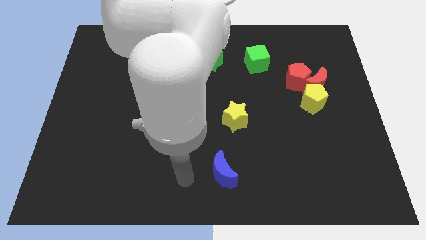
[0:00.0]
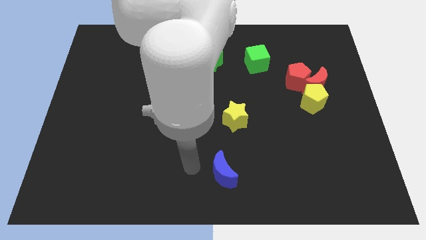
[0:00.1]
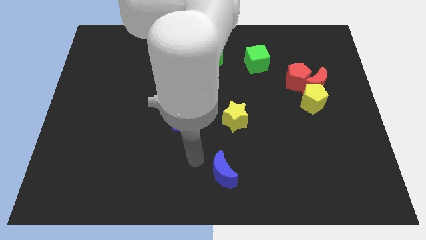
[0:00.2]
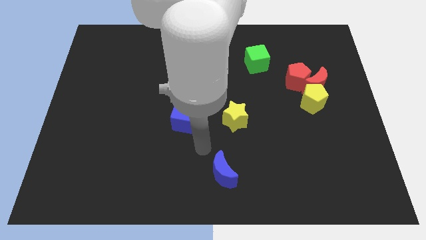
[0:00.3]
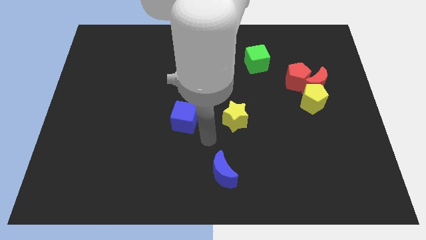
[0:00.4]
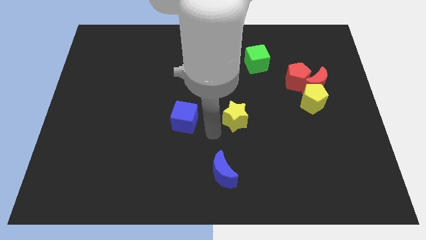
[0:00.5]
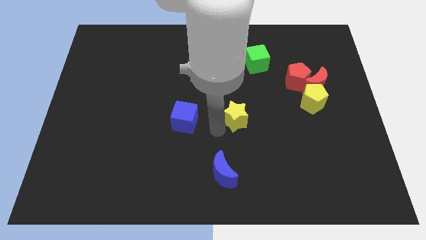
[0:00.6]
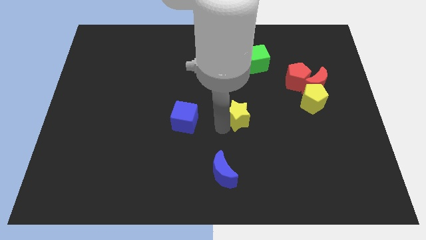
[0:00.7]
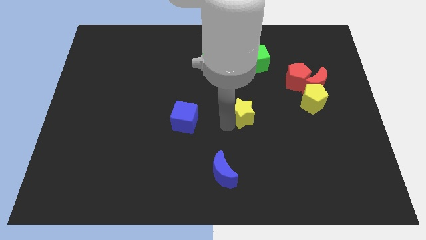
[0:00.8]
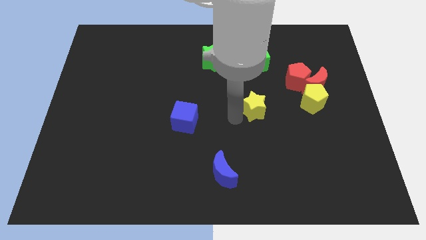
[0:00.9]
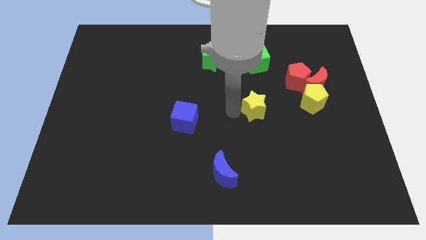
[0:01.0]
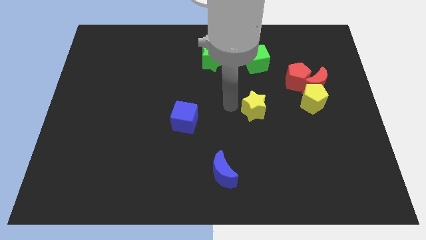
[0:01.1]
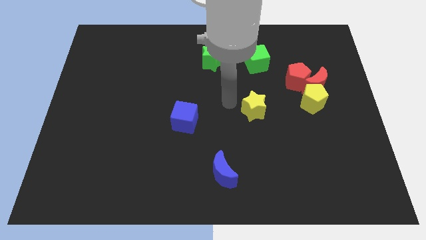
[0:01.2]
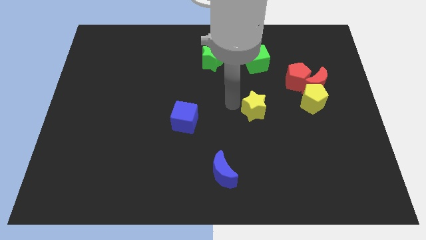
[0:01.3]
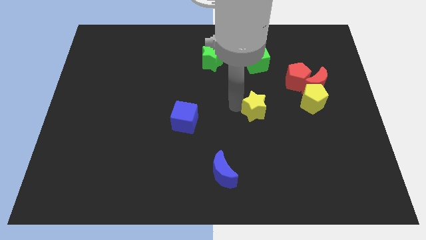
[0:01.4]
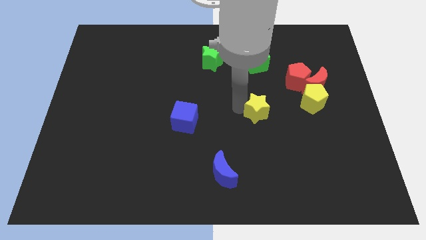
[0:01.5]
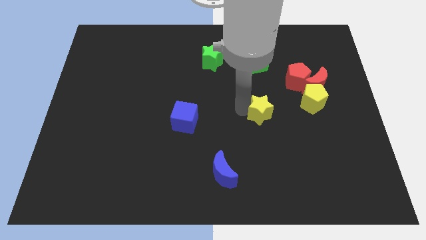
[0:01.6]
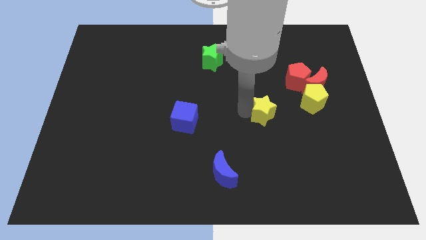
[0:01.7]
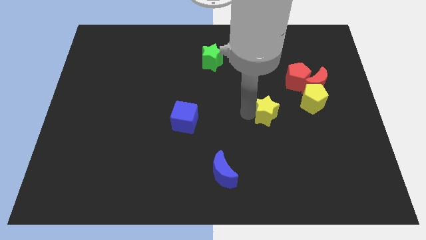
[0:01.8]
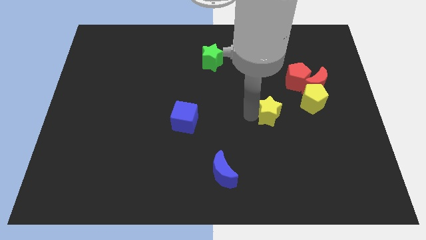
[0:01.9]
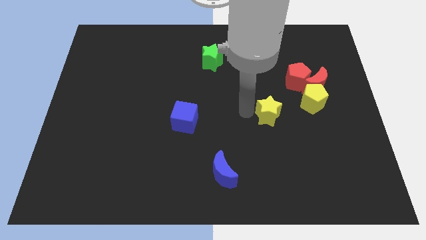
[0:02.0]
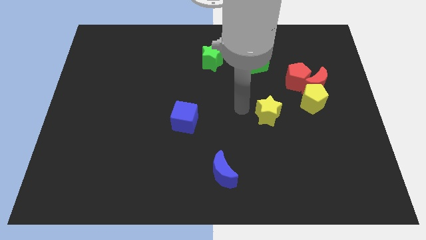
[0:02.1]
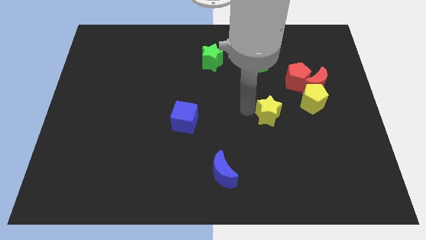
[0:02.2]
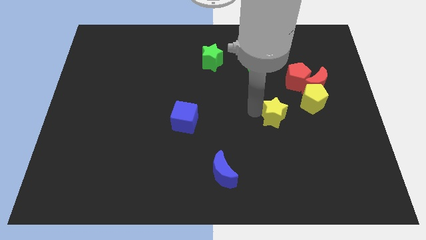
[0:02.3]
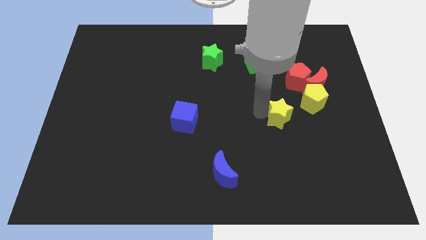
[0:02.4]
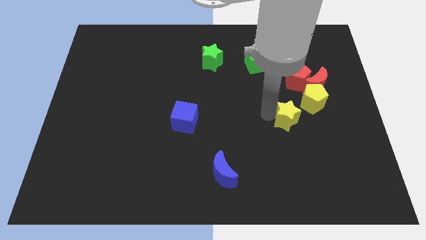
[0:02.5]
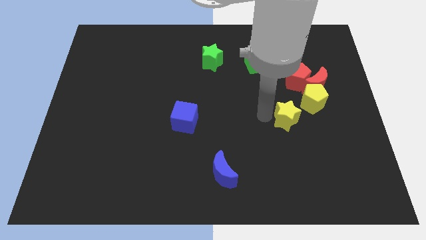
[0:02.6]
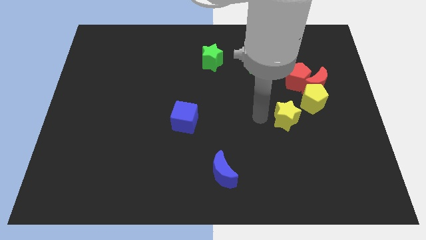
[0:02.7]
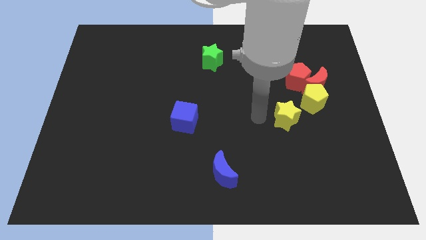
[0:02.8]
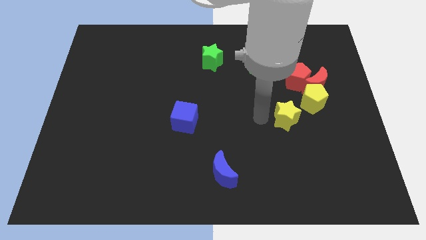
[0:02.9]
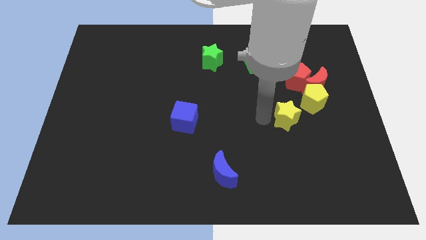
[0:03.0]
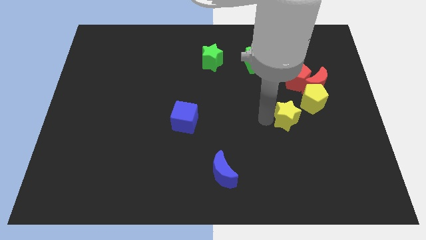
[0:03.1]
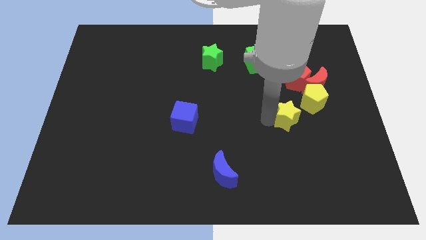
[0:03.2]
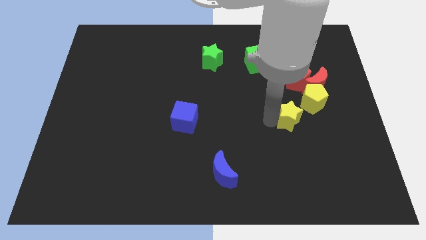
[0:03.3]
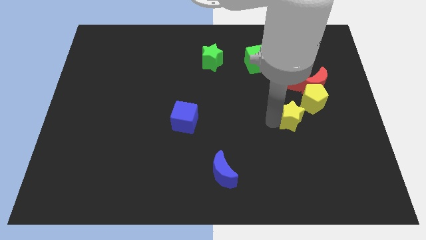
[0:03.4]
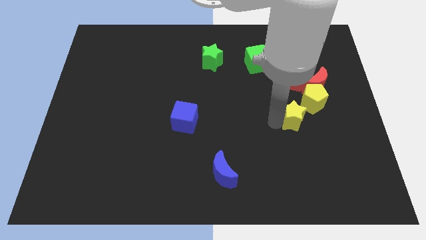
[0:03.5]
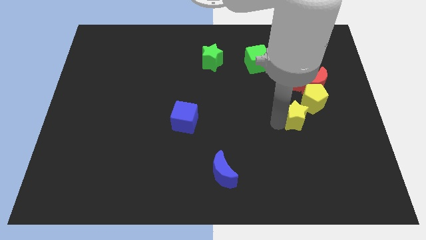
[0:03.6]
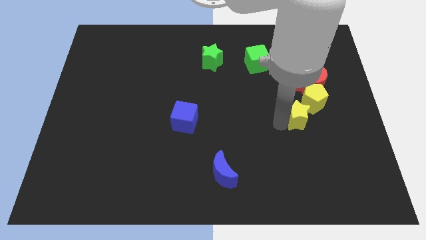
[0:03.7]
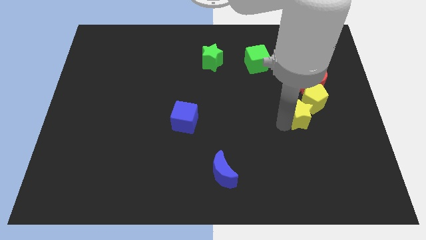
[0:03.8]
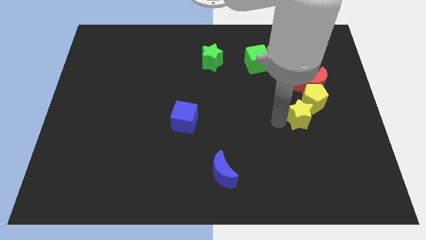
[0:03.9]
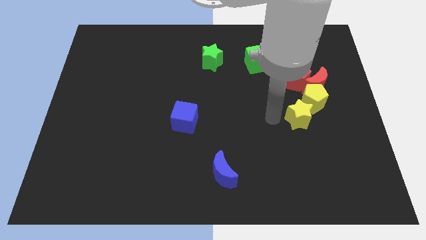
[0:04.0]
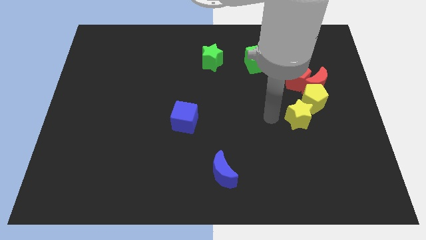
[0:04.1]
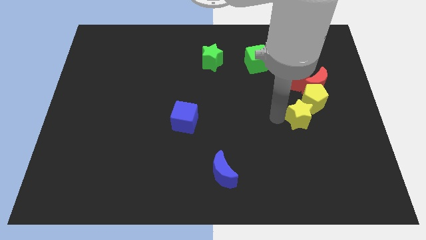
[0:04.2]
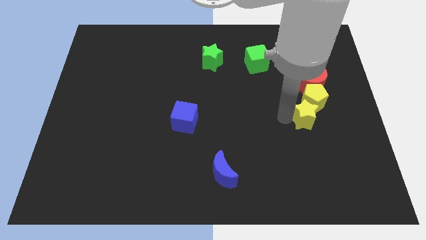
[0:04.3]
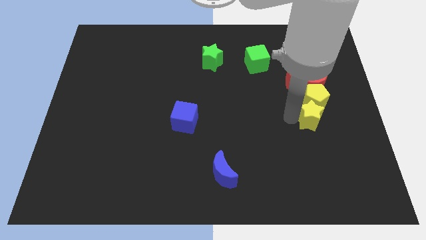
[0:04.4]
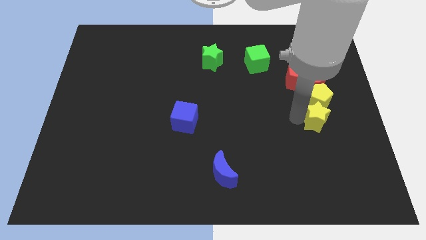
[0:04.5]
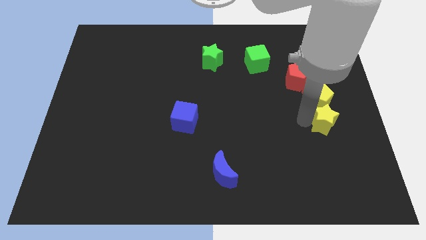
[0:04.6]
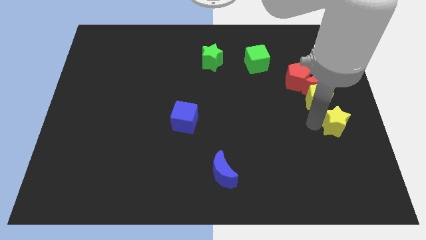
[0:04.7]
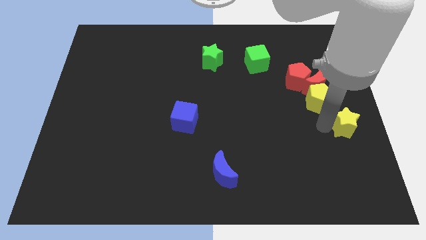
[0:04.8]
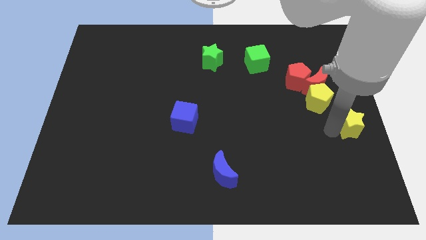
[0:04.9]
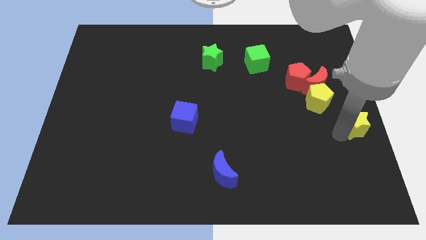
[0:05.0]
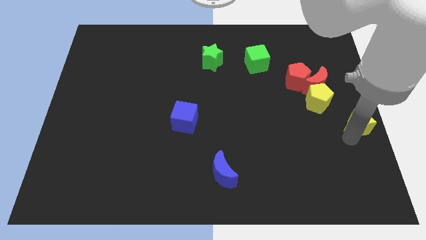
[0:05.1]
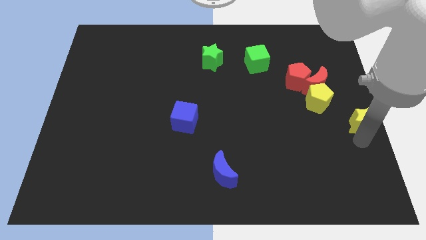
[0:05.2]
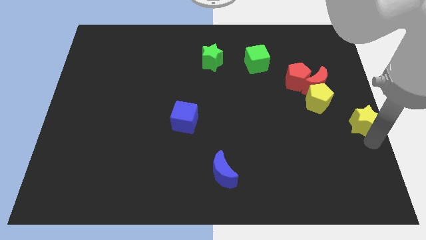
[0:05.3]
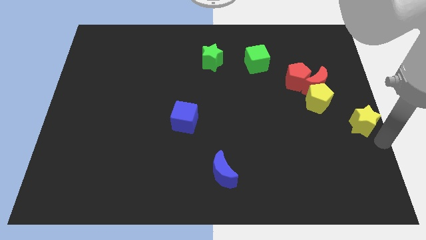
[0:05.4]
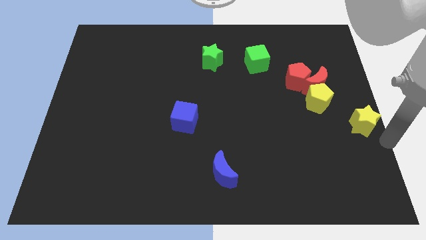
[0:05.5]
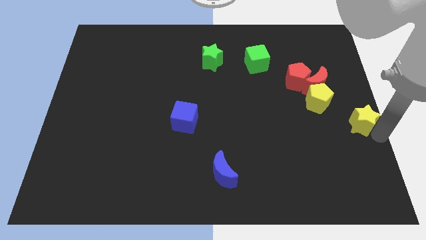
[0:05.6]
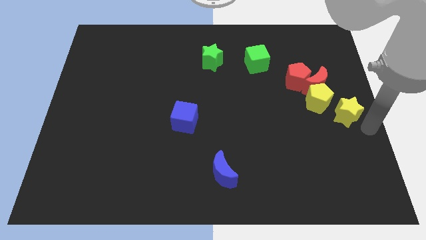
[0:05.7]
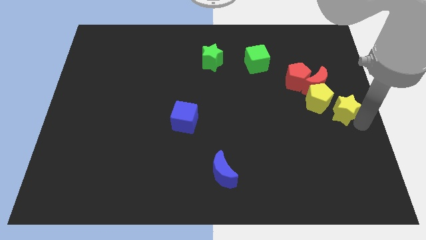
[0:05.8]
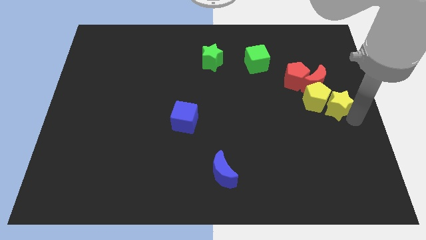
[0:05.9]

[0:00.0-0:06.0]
move the yellow star to the bottom right of the red pentagon

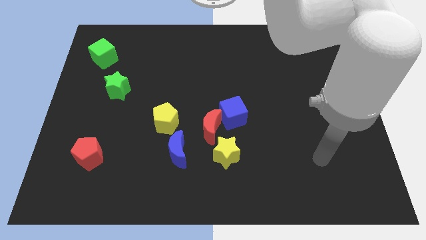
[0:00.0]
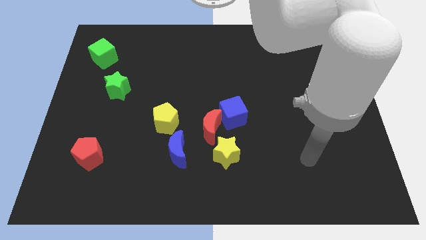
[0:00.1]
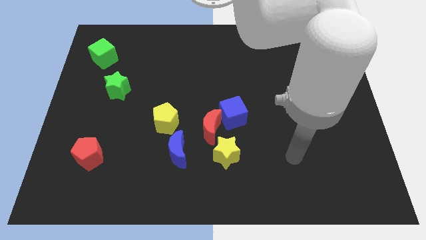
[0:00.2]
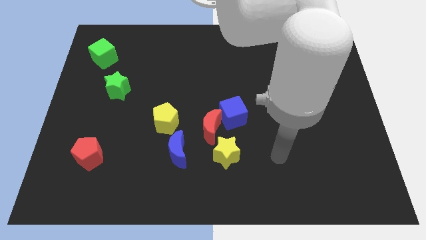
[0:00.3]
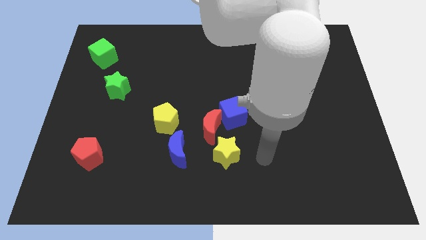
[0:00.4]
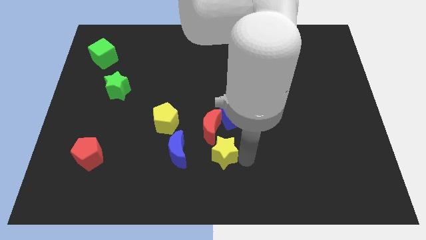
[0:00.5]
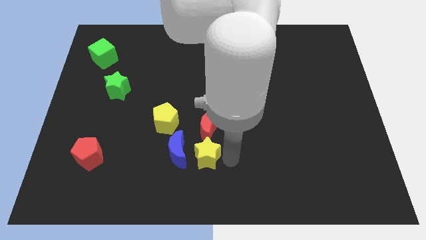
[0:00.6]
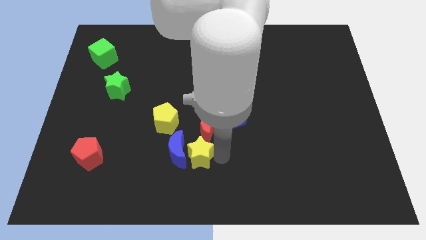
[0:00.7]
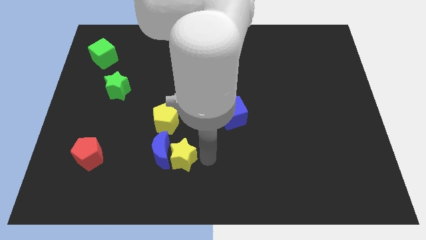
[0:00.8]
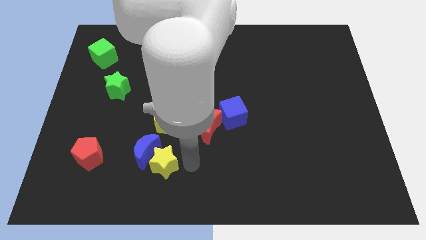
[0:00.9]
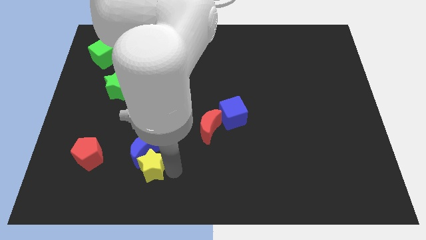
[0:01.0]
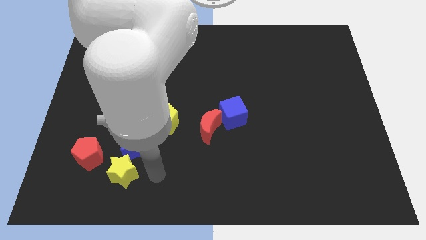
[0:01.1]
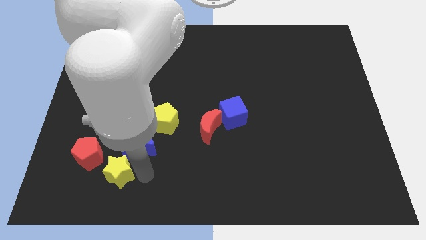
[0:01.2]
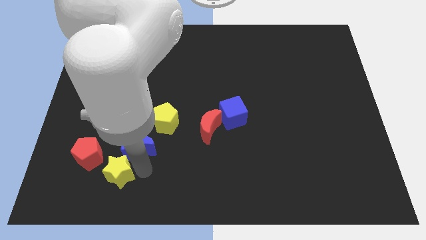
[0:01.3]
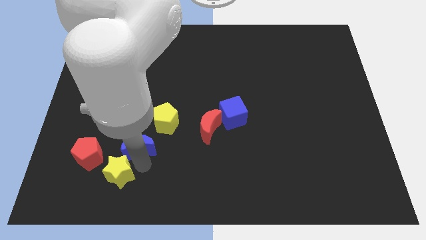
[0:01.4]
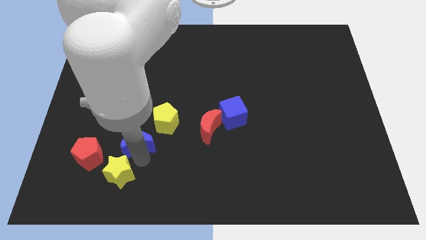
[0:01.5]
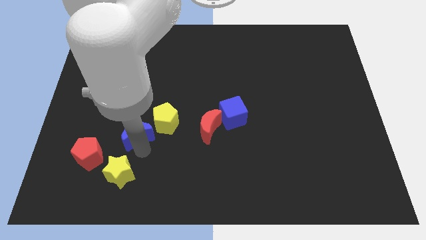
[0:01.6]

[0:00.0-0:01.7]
push the blue moon to the left side of the yellow pentagon

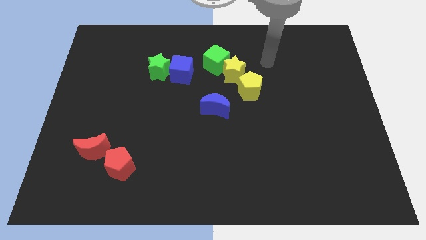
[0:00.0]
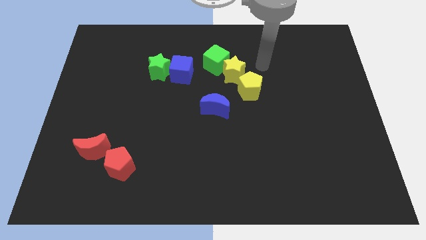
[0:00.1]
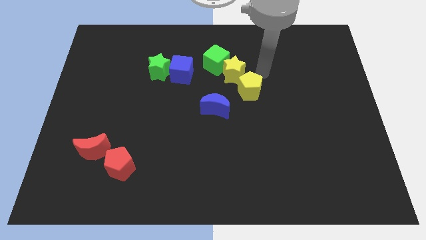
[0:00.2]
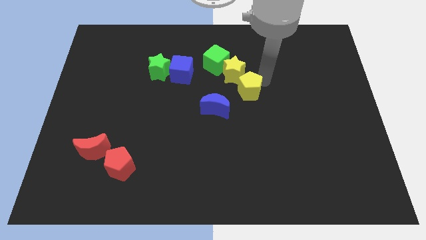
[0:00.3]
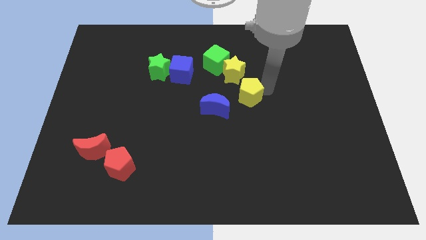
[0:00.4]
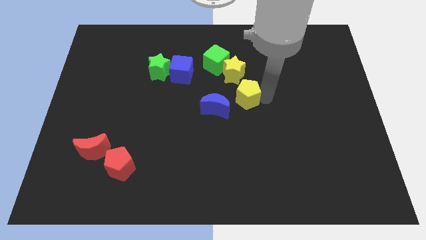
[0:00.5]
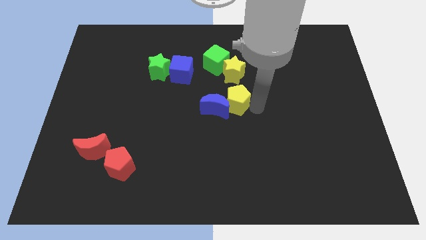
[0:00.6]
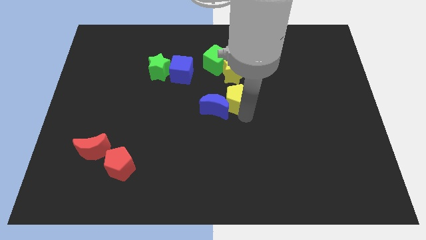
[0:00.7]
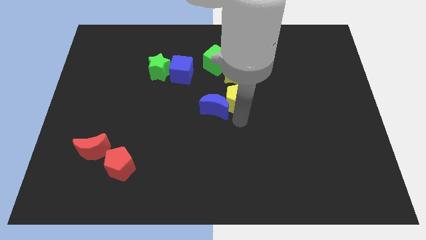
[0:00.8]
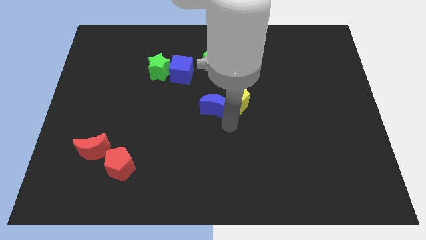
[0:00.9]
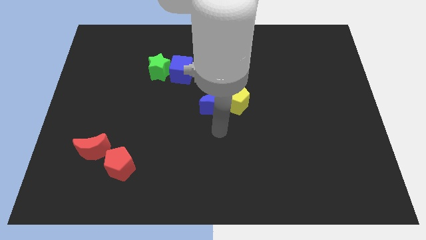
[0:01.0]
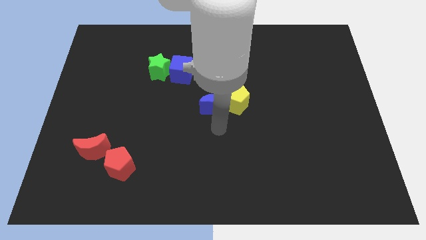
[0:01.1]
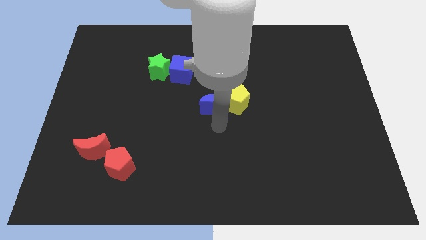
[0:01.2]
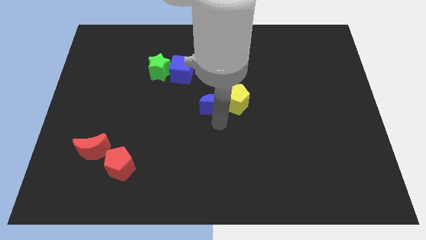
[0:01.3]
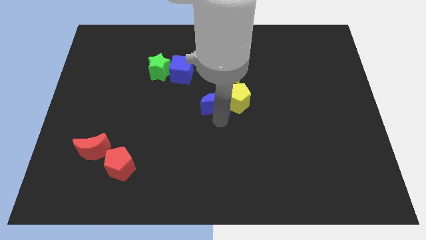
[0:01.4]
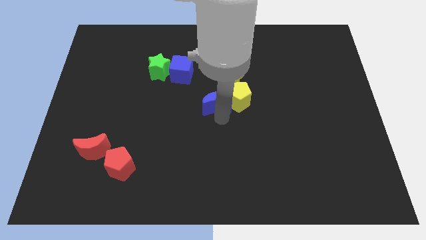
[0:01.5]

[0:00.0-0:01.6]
push the blue moon to the bottom left side of the yellow star
